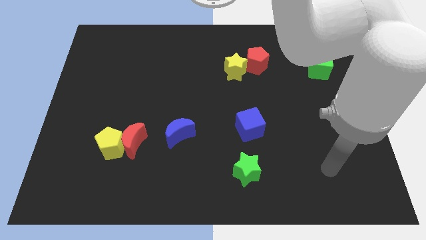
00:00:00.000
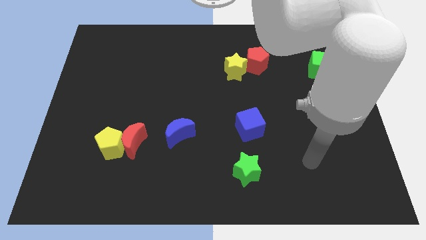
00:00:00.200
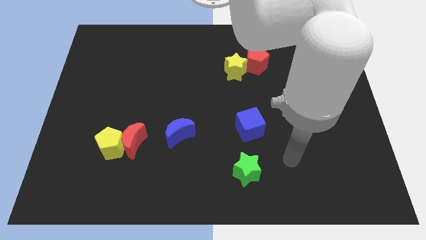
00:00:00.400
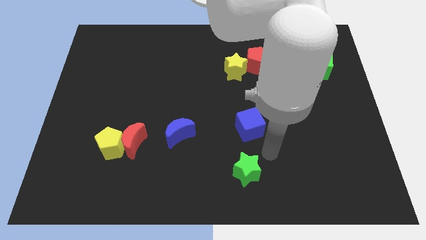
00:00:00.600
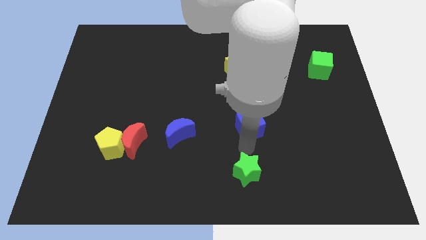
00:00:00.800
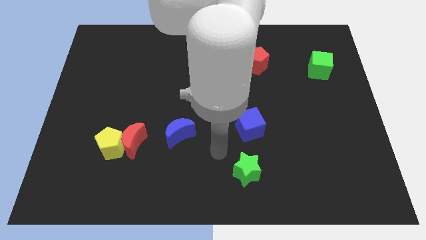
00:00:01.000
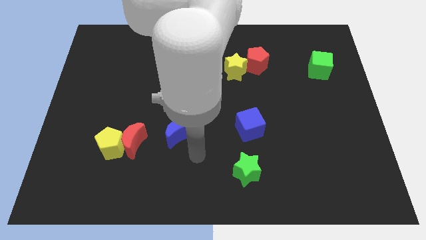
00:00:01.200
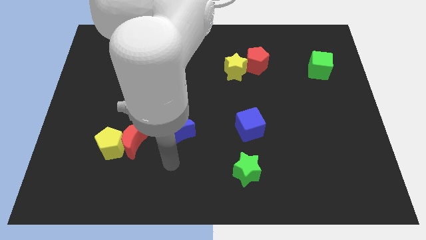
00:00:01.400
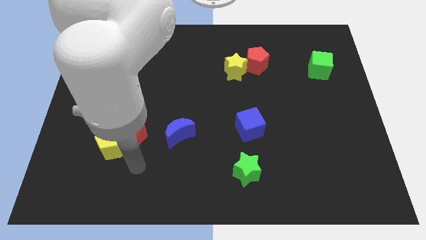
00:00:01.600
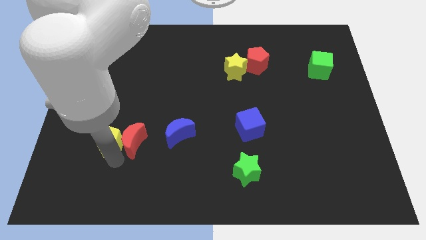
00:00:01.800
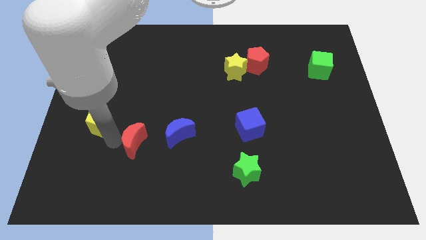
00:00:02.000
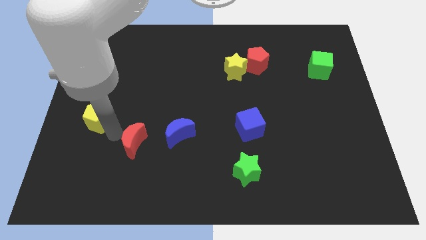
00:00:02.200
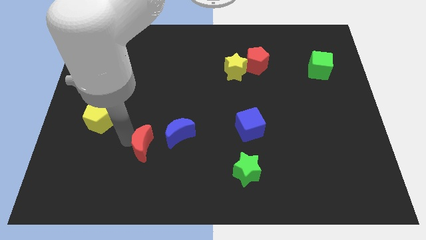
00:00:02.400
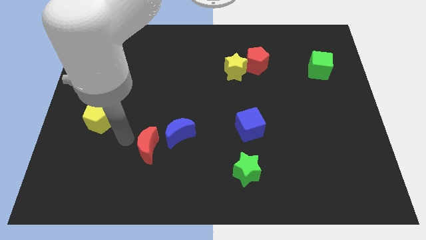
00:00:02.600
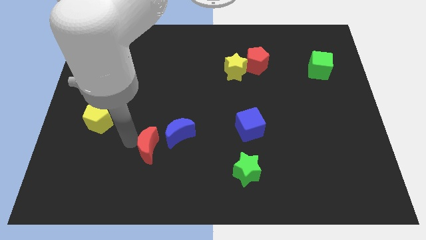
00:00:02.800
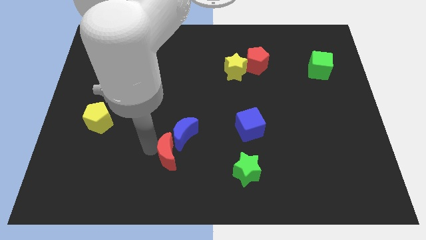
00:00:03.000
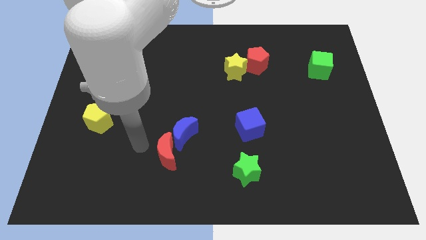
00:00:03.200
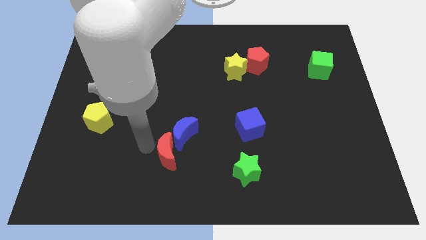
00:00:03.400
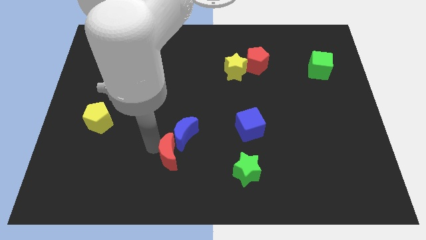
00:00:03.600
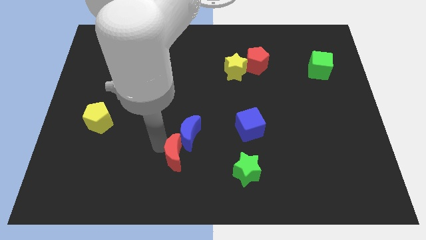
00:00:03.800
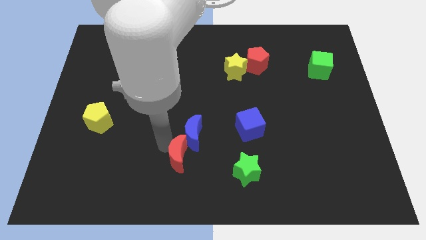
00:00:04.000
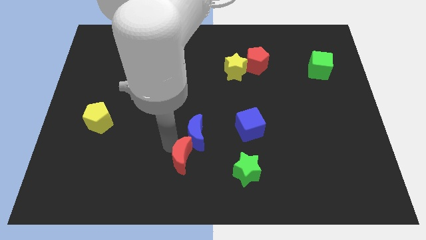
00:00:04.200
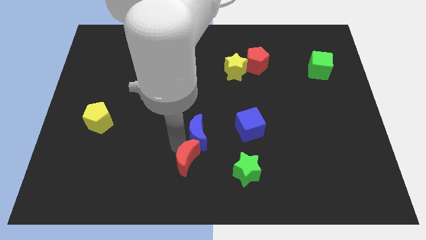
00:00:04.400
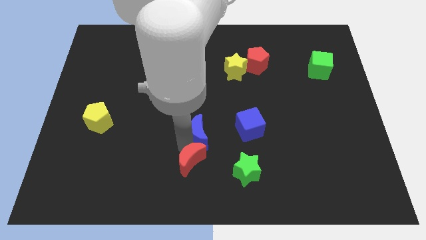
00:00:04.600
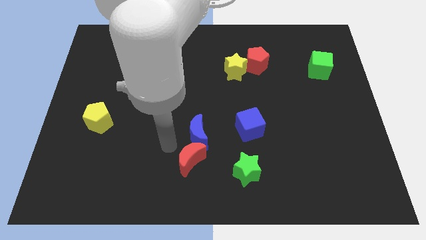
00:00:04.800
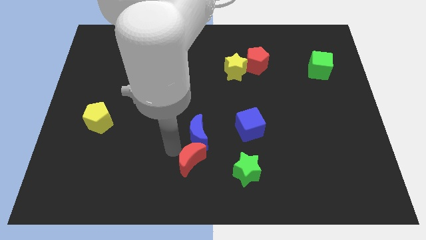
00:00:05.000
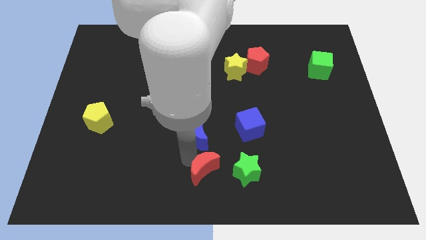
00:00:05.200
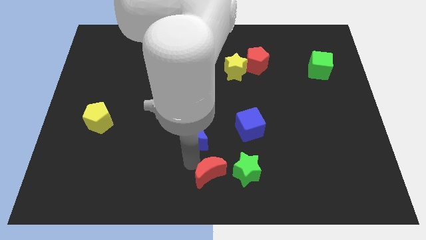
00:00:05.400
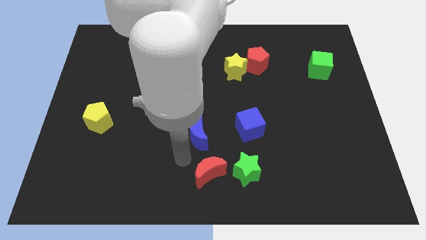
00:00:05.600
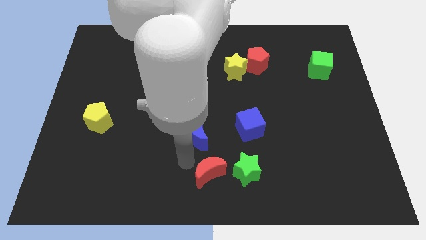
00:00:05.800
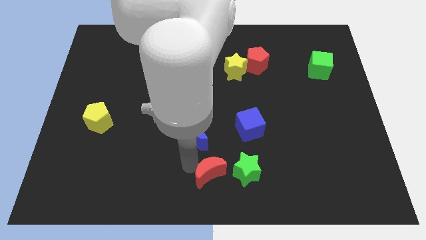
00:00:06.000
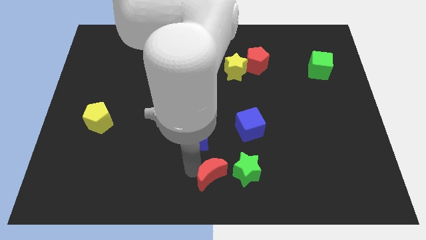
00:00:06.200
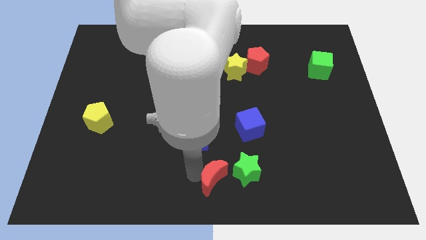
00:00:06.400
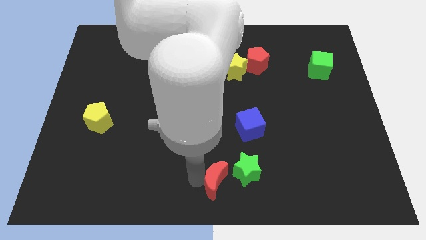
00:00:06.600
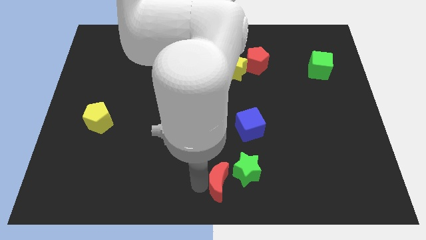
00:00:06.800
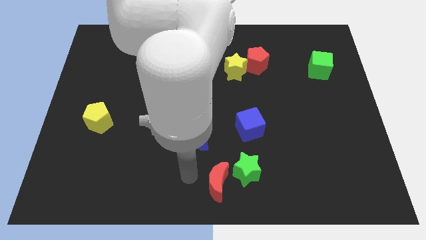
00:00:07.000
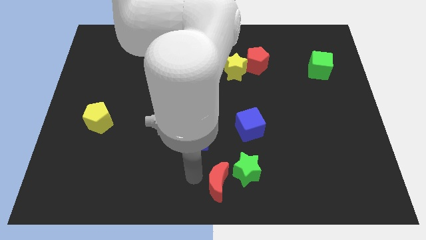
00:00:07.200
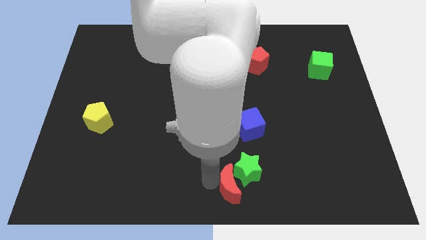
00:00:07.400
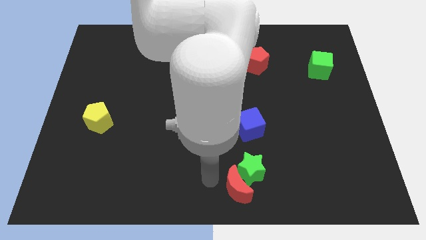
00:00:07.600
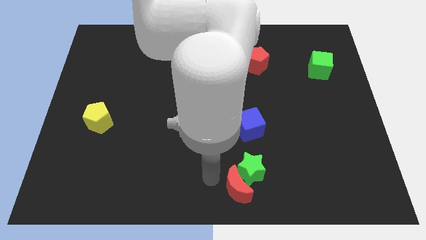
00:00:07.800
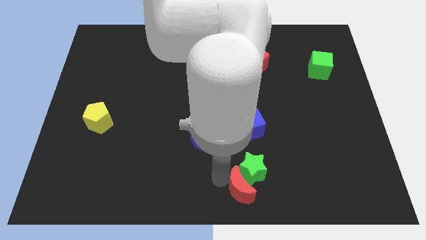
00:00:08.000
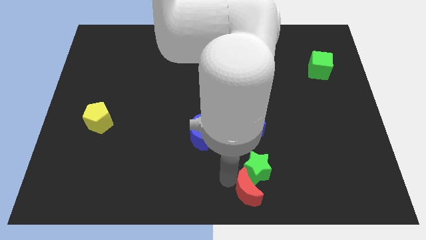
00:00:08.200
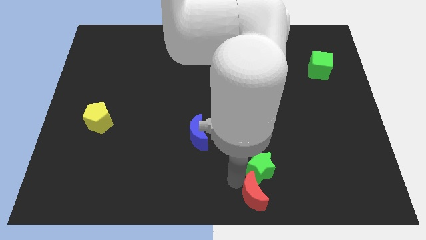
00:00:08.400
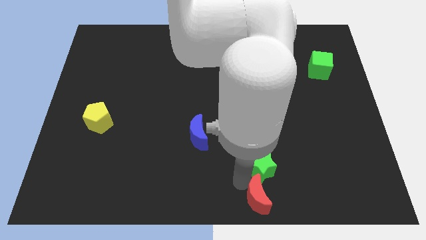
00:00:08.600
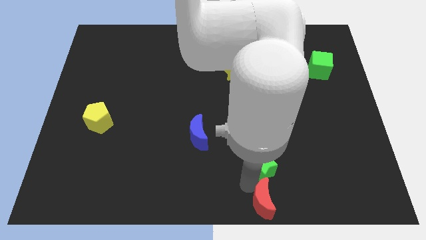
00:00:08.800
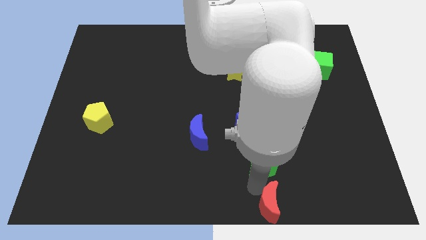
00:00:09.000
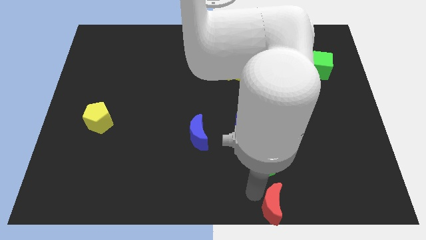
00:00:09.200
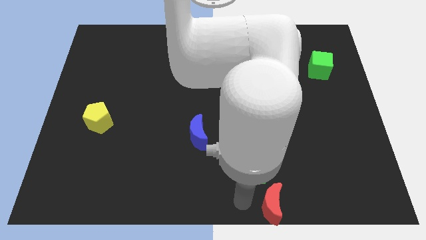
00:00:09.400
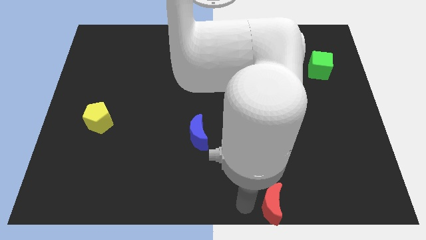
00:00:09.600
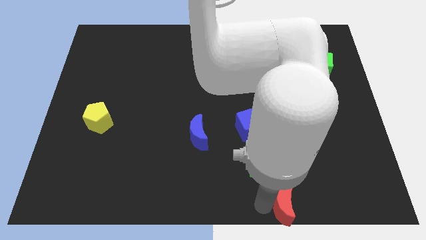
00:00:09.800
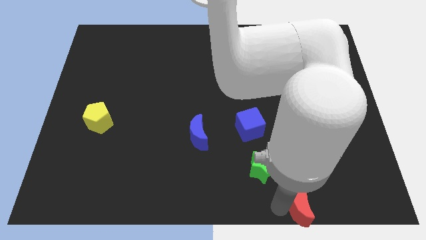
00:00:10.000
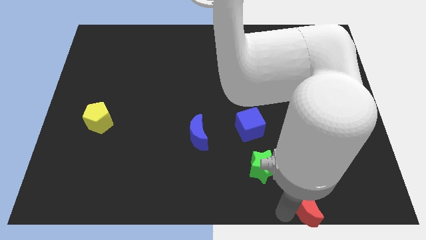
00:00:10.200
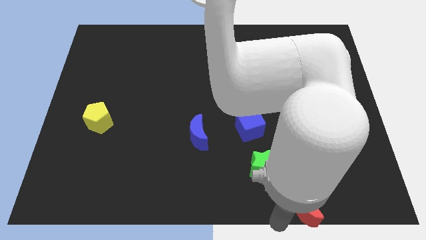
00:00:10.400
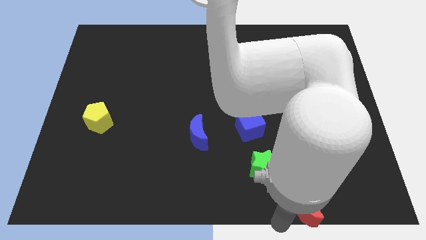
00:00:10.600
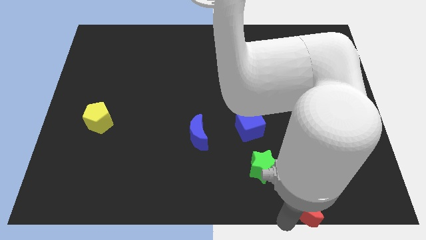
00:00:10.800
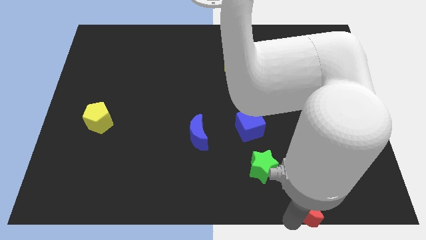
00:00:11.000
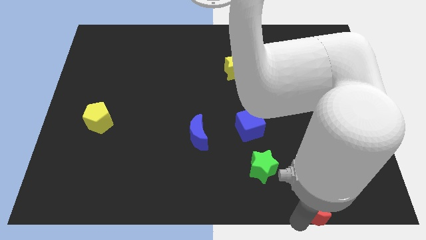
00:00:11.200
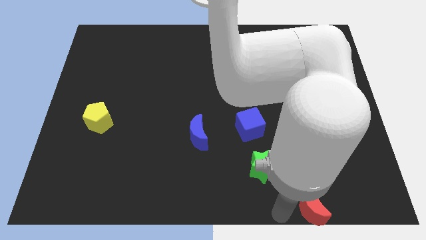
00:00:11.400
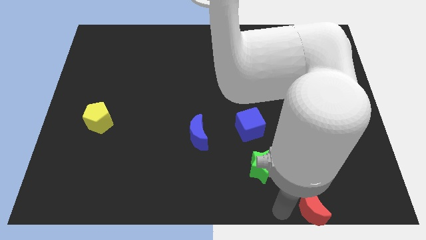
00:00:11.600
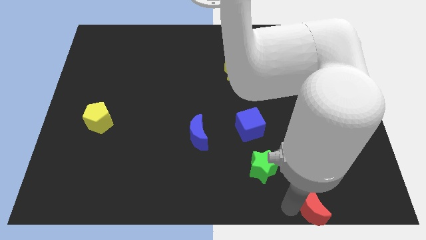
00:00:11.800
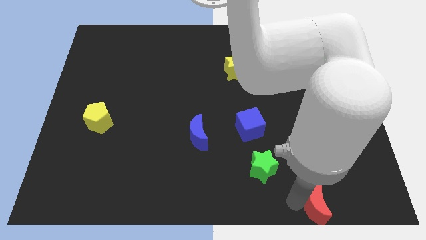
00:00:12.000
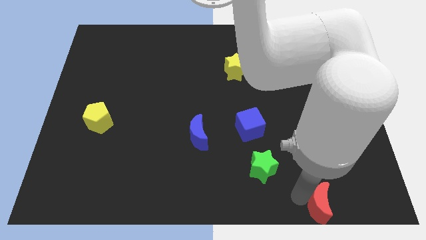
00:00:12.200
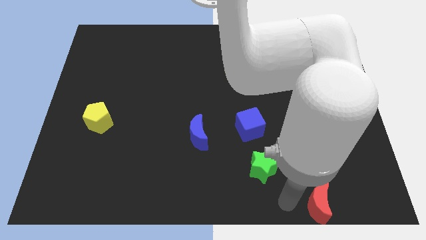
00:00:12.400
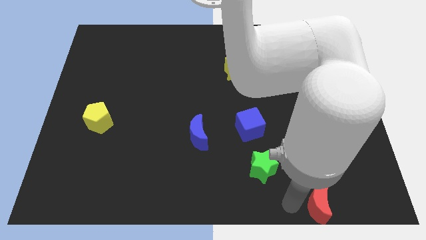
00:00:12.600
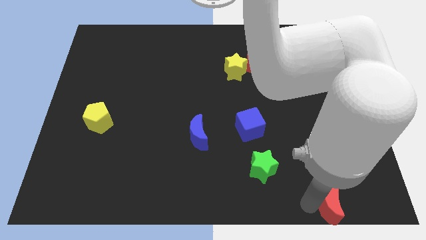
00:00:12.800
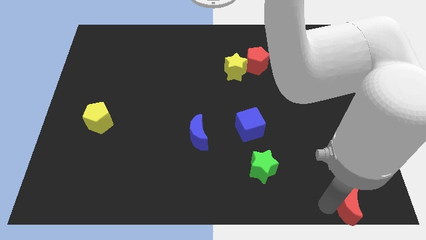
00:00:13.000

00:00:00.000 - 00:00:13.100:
slide the red moon to the lower right corner

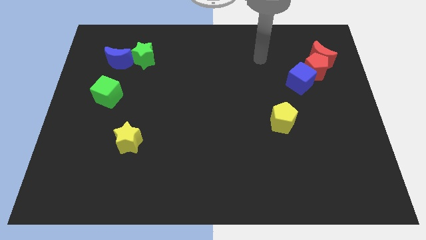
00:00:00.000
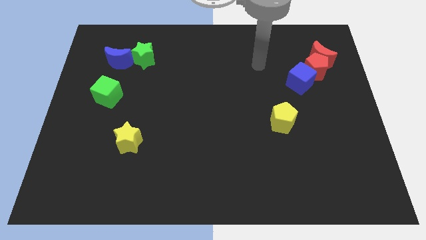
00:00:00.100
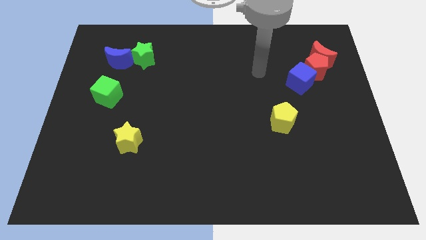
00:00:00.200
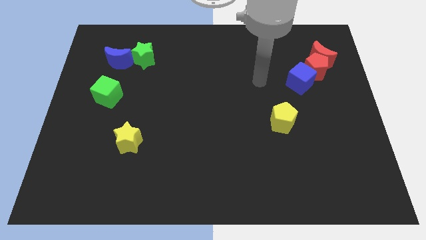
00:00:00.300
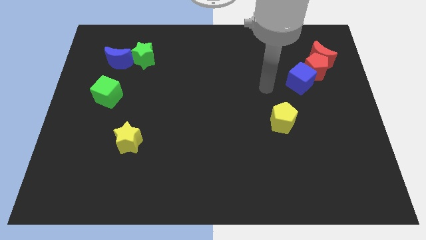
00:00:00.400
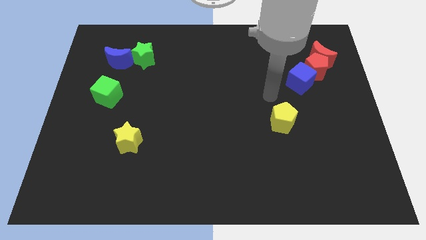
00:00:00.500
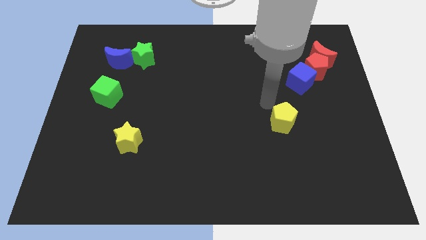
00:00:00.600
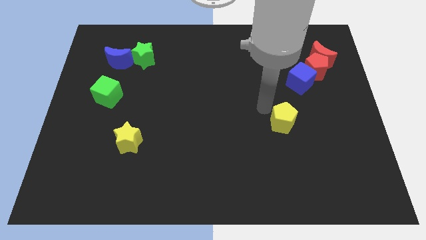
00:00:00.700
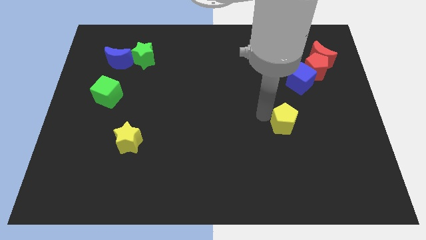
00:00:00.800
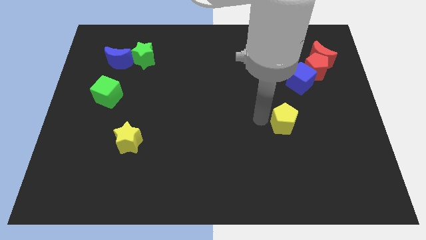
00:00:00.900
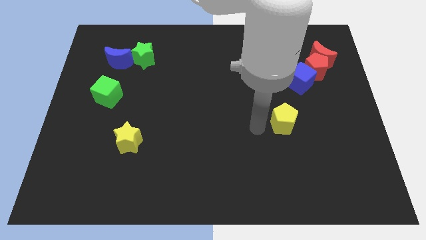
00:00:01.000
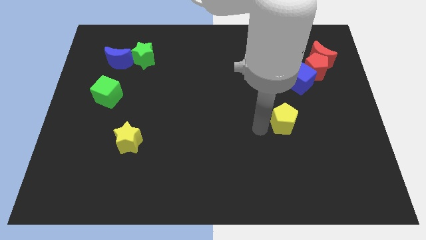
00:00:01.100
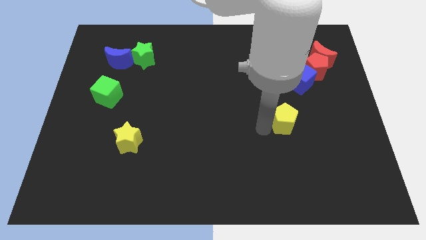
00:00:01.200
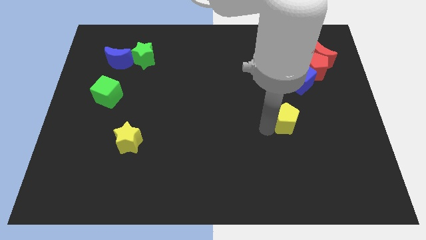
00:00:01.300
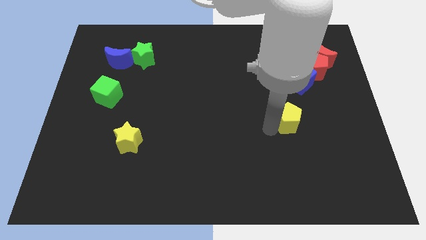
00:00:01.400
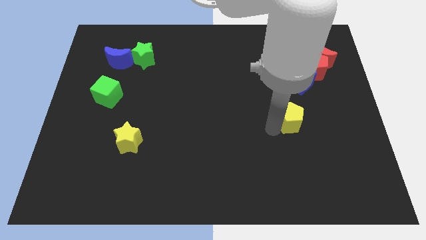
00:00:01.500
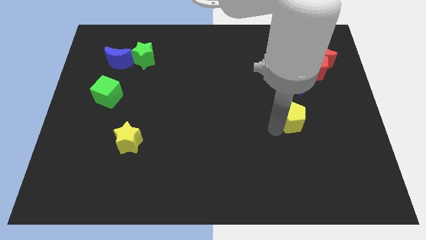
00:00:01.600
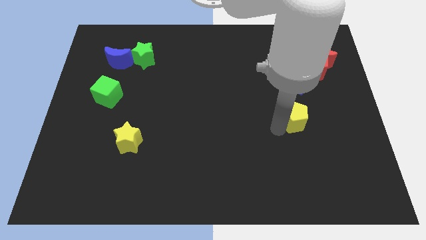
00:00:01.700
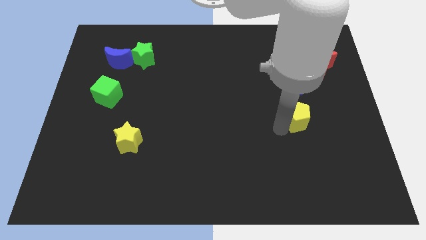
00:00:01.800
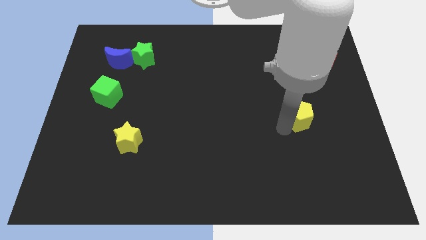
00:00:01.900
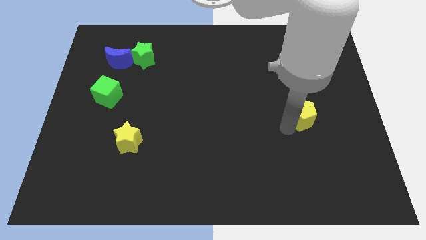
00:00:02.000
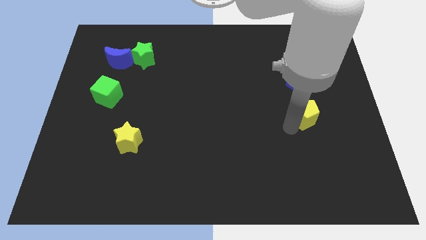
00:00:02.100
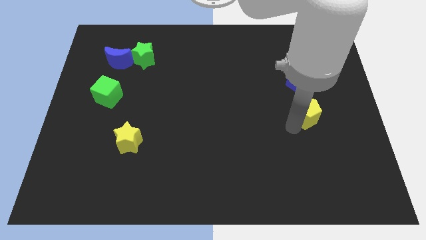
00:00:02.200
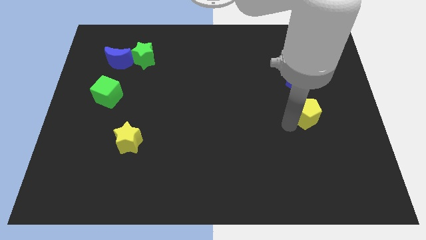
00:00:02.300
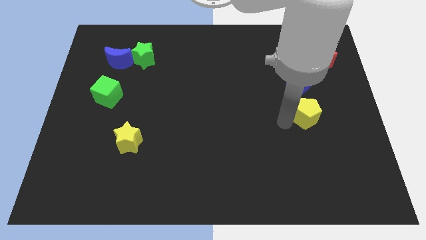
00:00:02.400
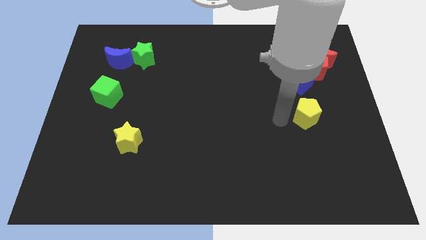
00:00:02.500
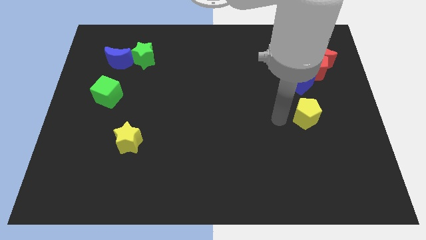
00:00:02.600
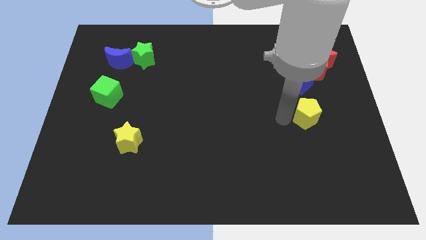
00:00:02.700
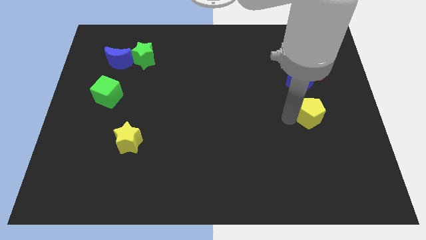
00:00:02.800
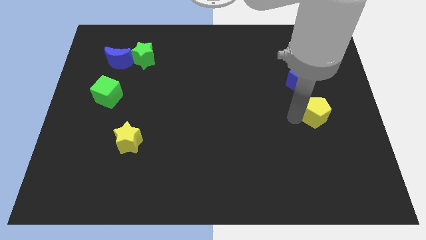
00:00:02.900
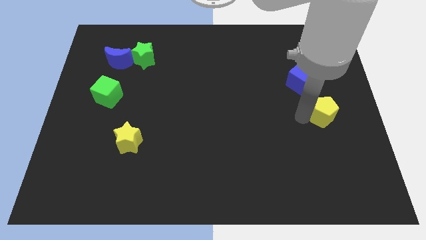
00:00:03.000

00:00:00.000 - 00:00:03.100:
push the yellow pentagon to the center right
